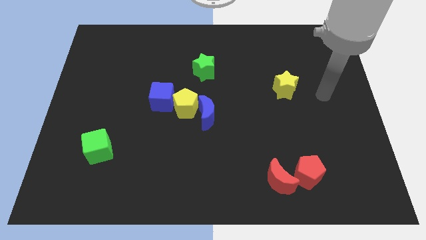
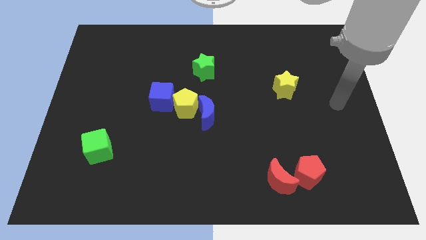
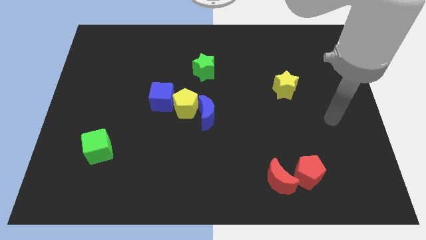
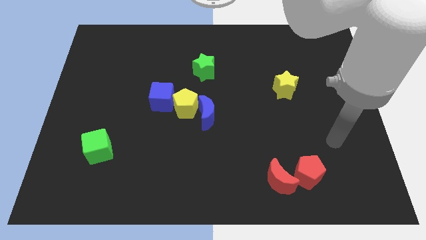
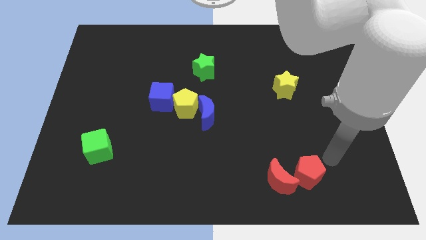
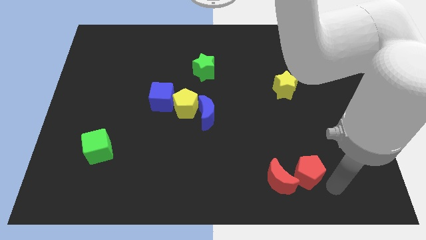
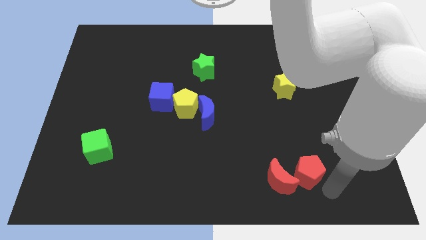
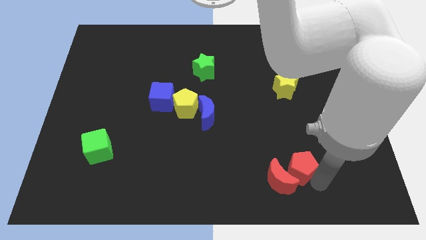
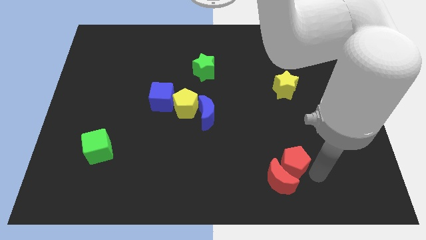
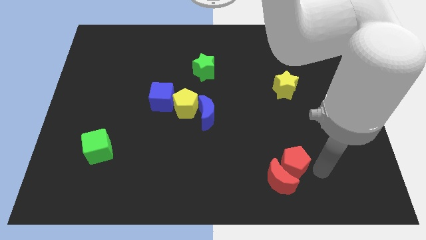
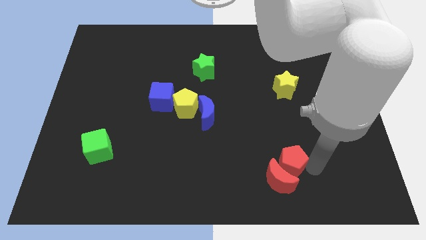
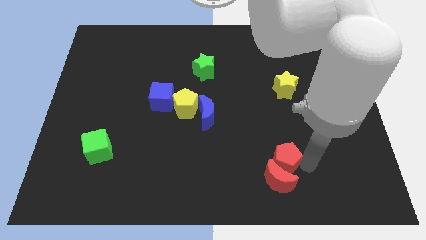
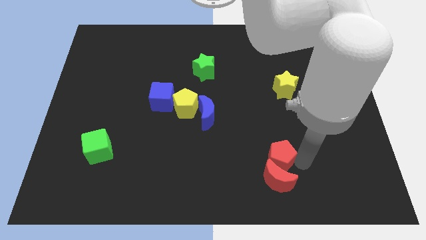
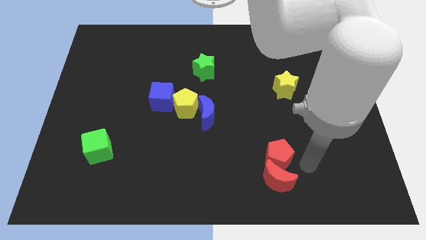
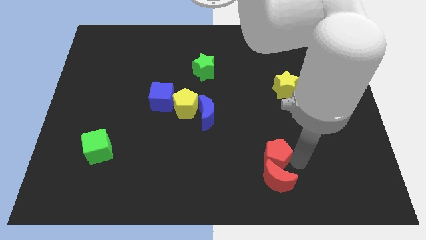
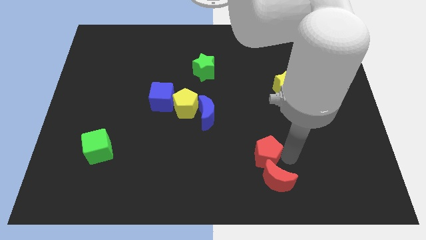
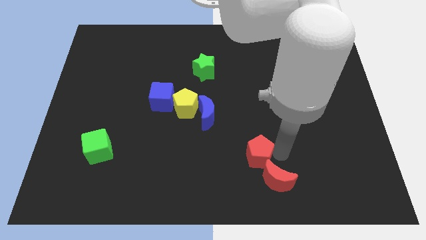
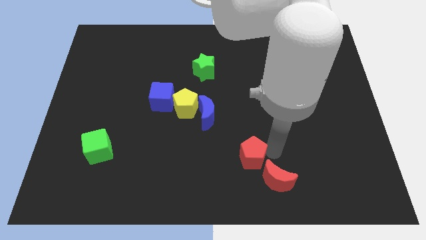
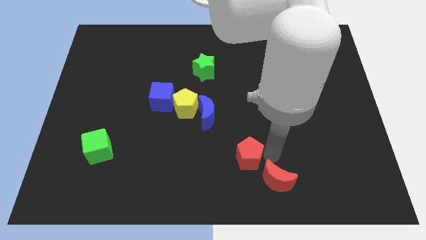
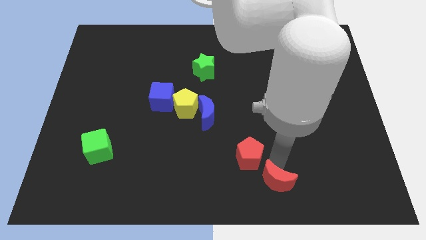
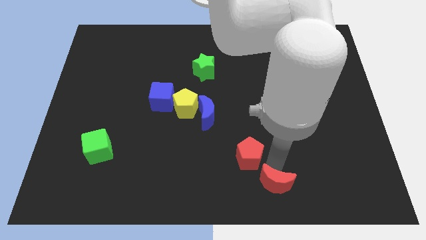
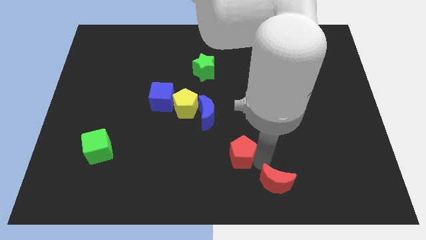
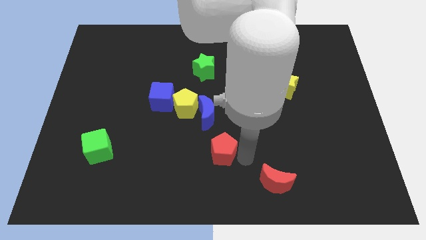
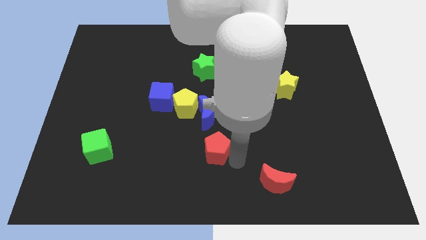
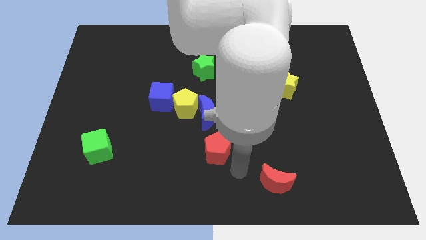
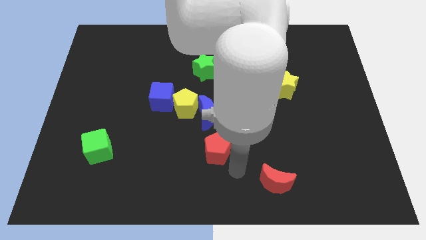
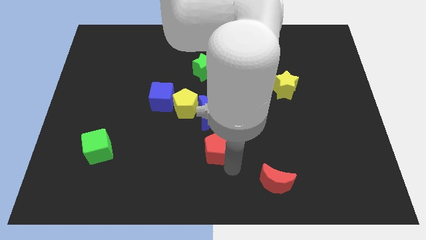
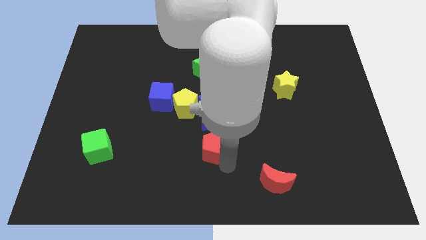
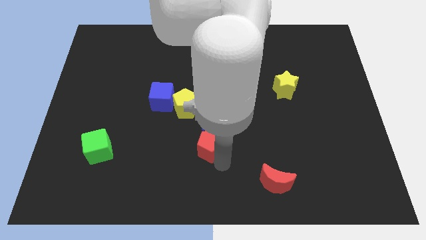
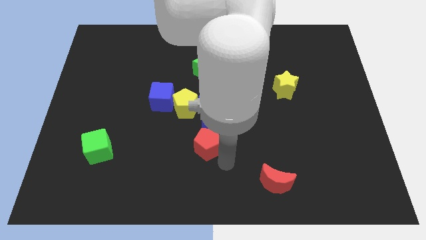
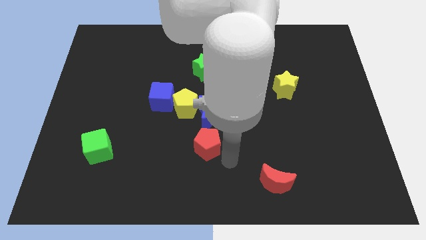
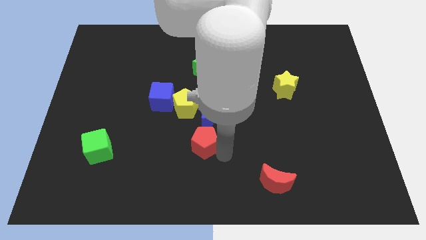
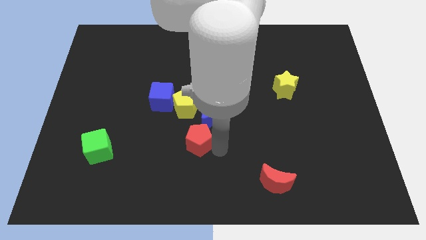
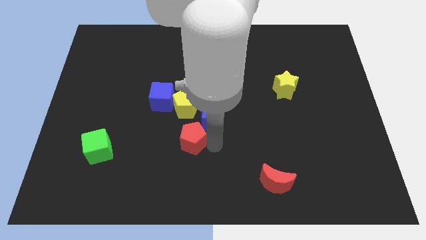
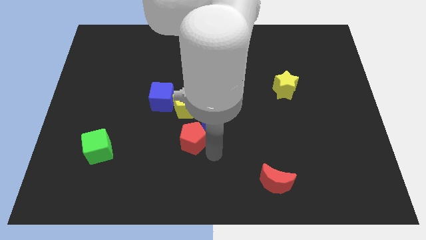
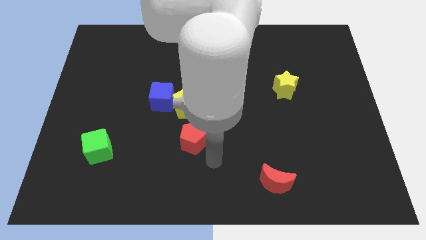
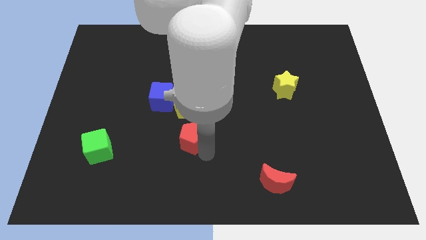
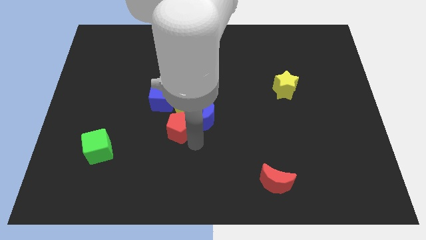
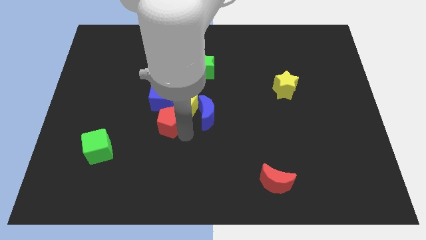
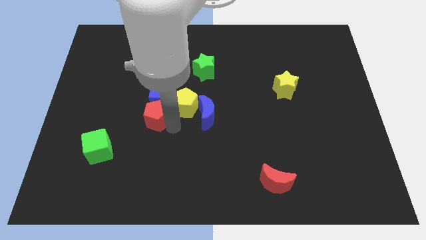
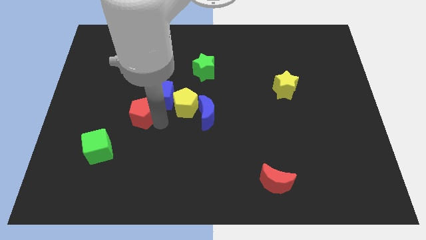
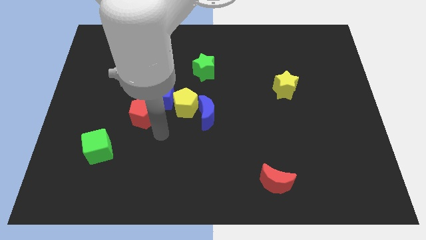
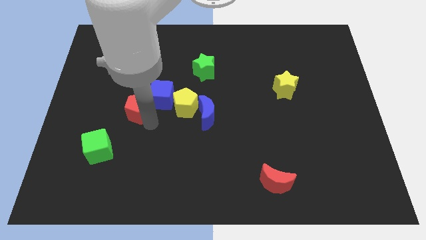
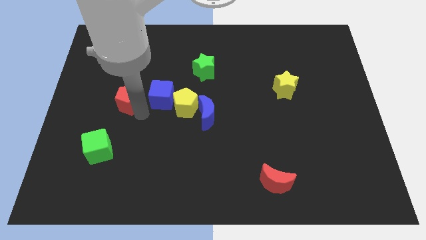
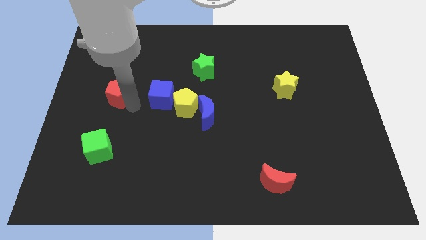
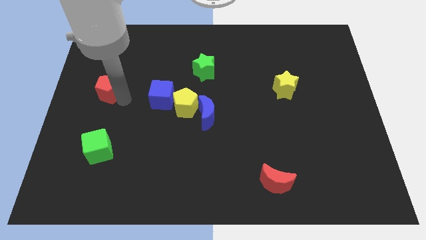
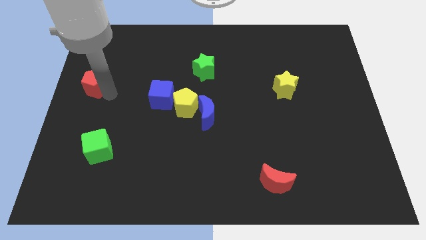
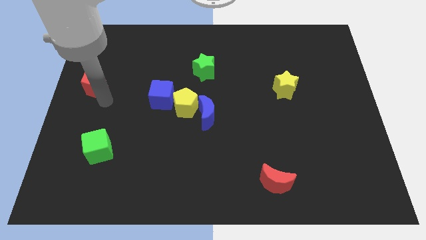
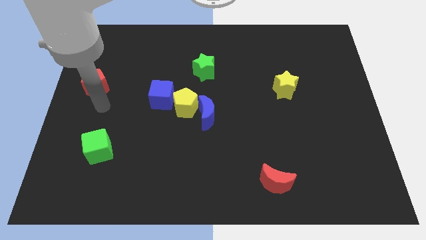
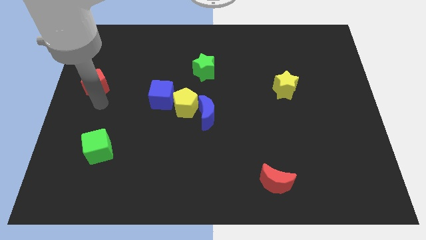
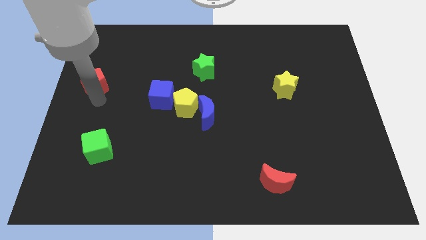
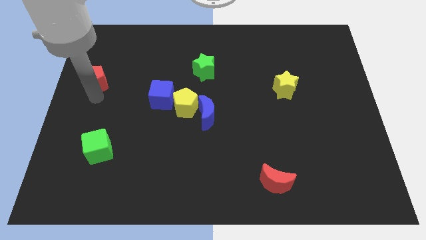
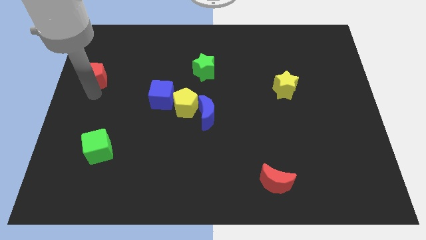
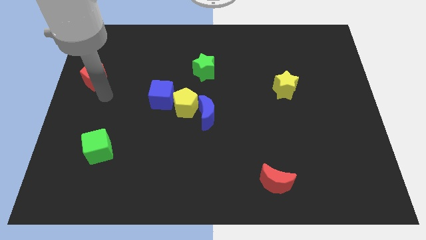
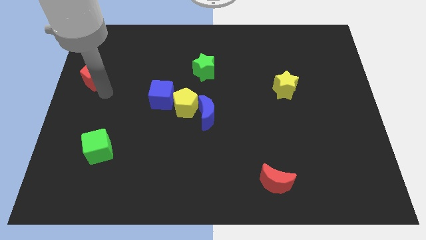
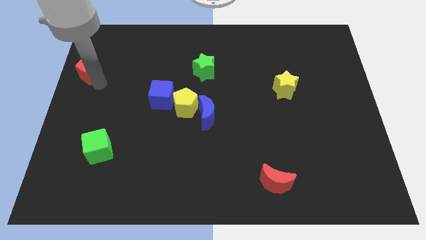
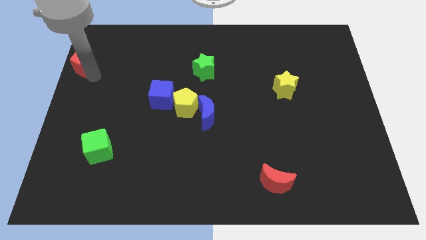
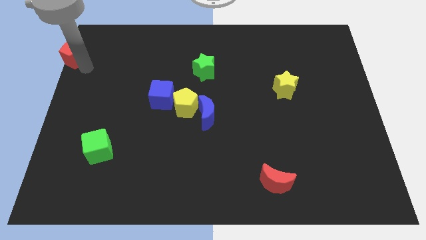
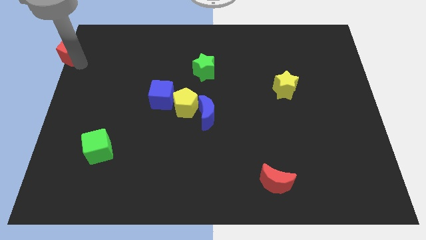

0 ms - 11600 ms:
put the red pentagon to the top left
